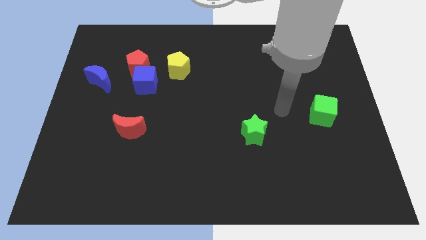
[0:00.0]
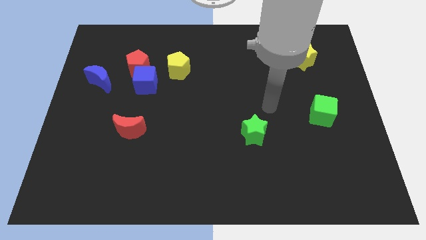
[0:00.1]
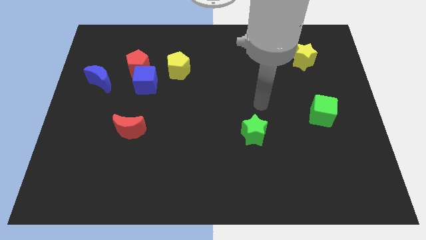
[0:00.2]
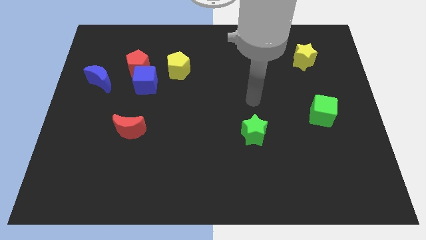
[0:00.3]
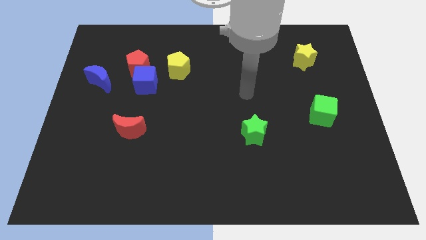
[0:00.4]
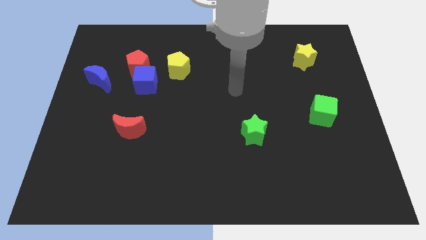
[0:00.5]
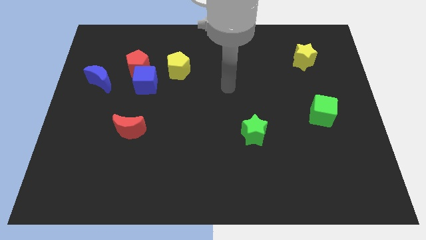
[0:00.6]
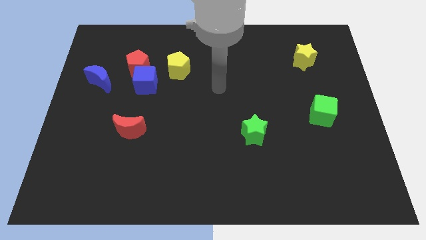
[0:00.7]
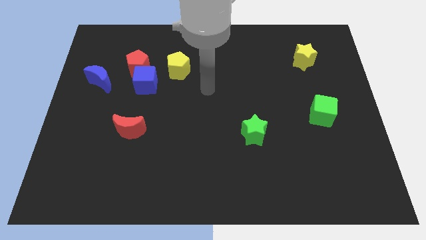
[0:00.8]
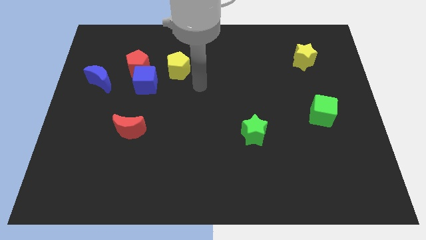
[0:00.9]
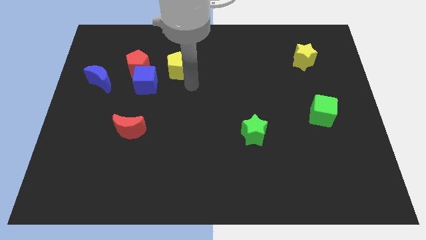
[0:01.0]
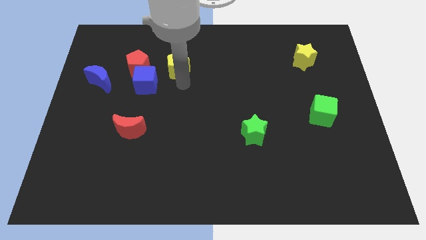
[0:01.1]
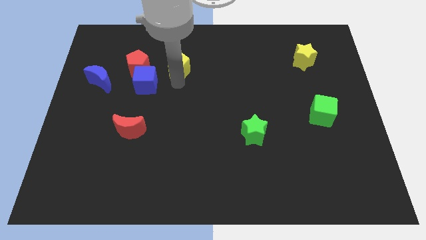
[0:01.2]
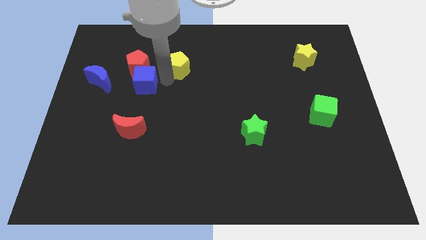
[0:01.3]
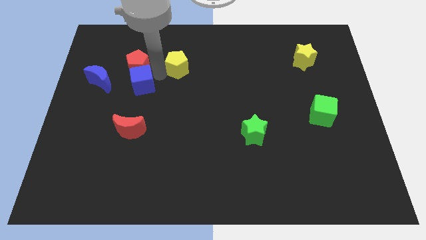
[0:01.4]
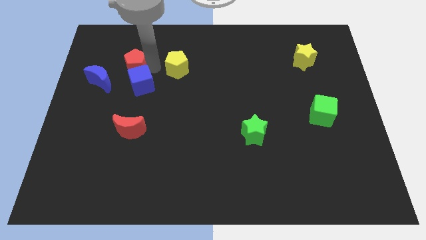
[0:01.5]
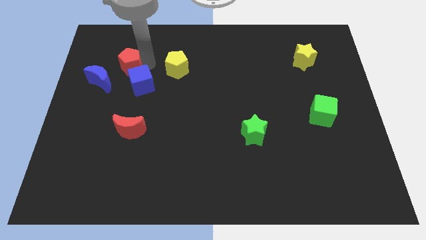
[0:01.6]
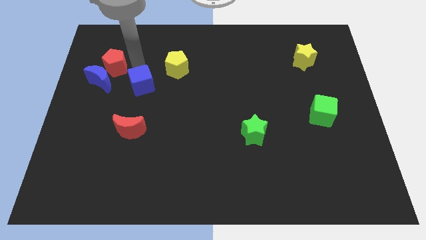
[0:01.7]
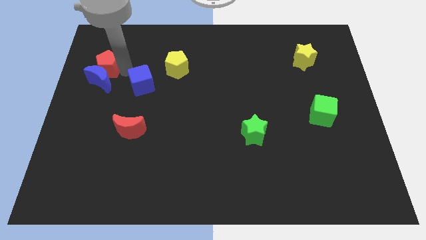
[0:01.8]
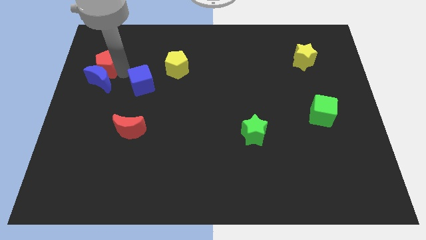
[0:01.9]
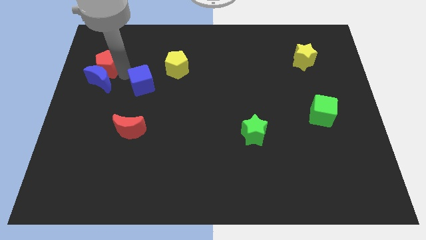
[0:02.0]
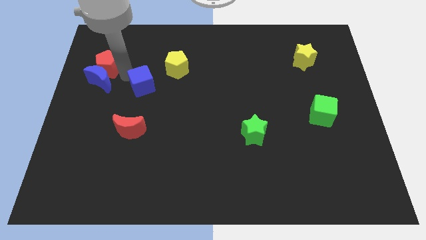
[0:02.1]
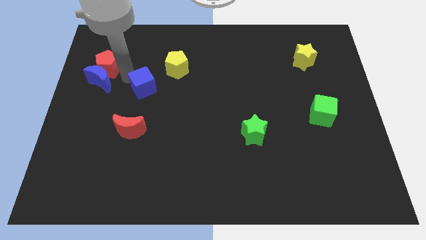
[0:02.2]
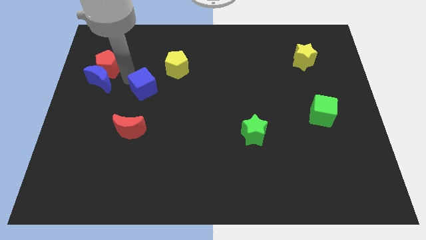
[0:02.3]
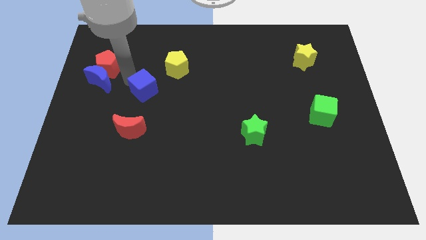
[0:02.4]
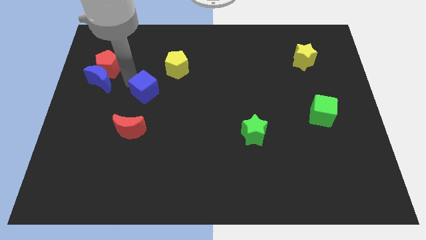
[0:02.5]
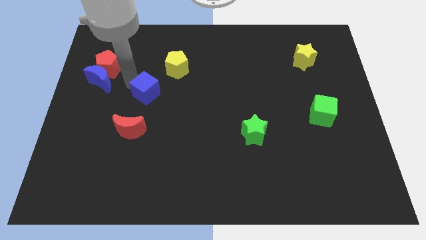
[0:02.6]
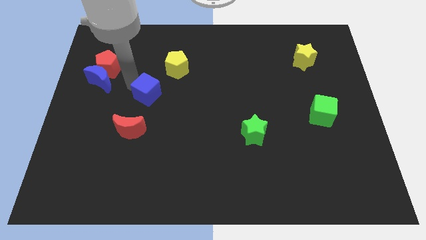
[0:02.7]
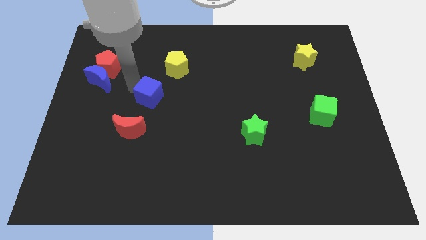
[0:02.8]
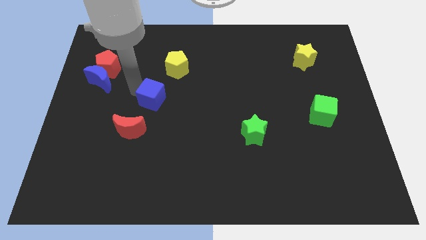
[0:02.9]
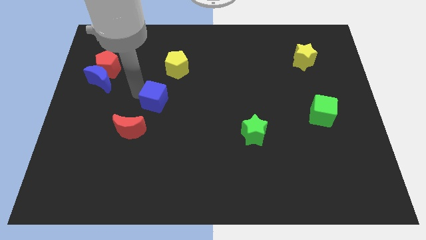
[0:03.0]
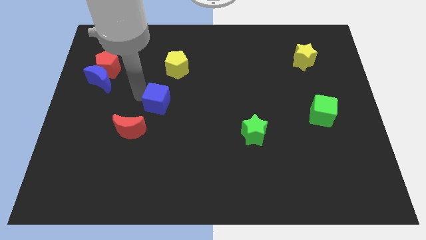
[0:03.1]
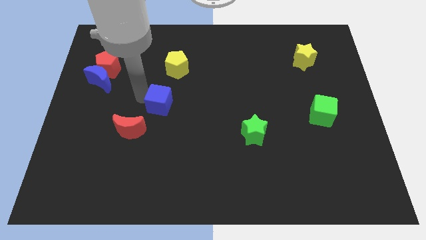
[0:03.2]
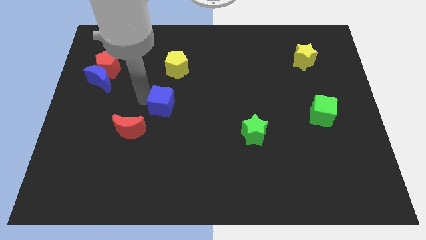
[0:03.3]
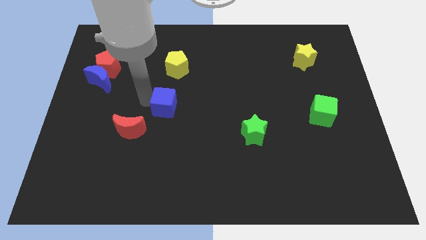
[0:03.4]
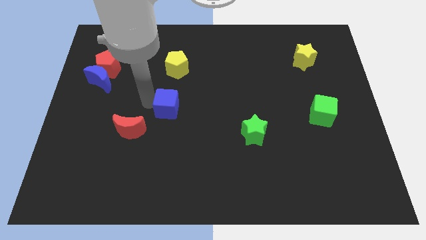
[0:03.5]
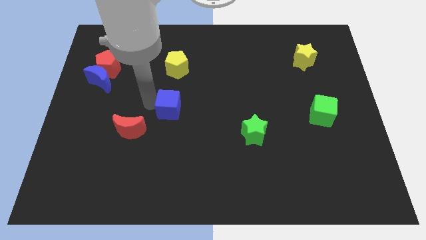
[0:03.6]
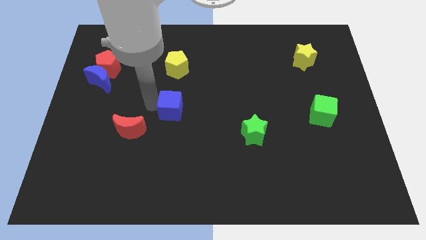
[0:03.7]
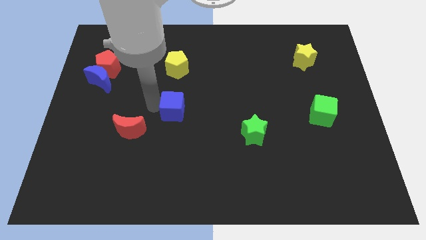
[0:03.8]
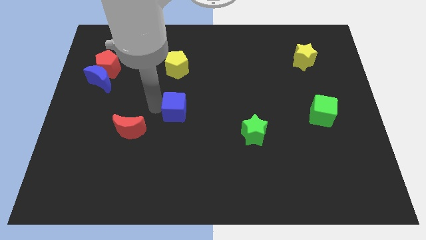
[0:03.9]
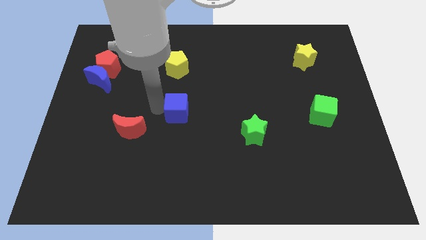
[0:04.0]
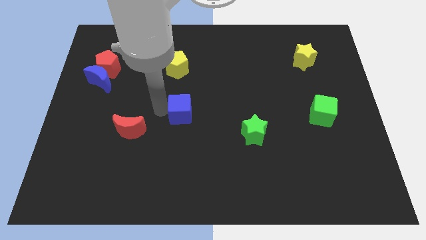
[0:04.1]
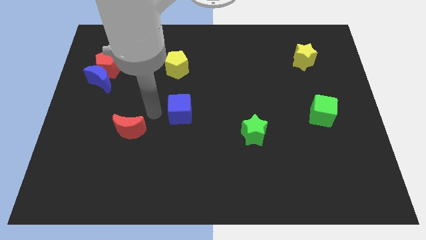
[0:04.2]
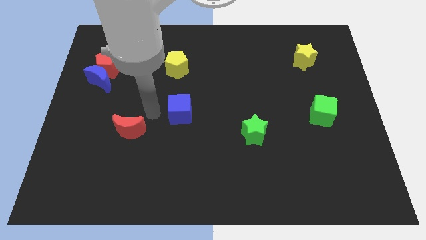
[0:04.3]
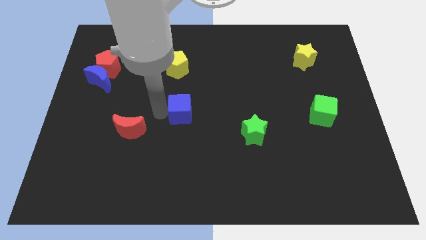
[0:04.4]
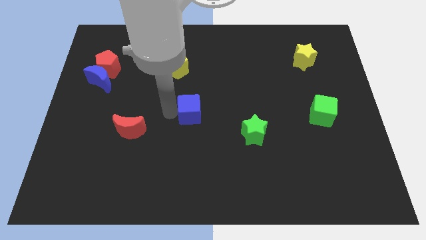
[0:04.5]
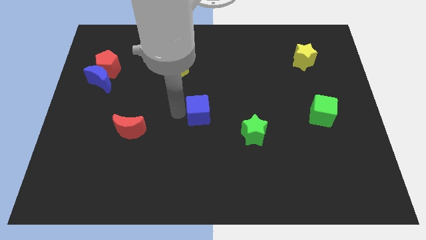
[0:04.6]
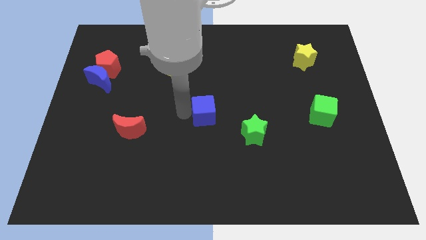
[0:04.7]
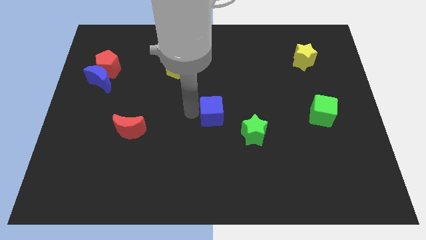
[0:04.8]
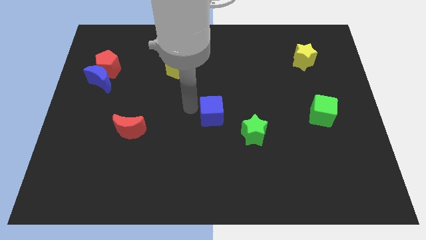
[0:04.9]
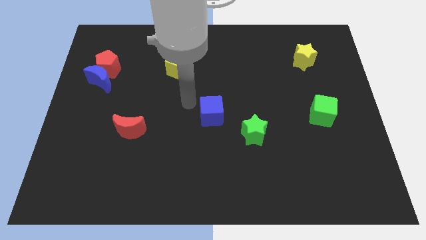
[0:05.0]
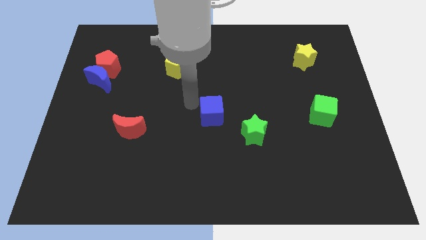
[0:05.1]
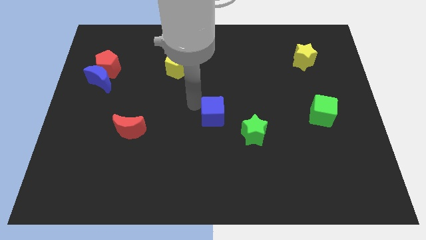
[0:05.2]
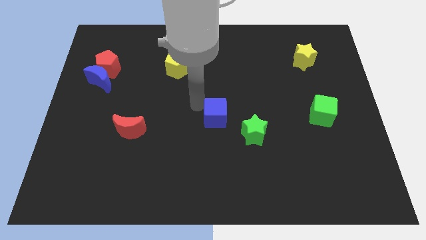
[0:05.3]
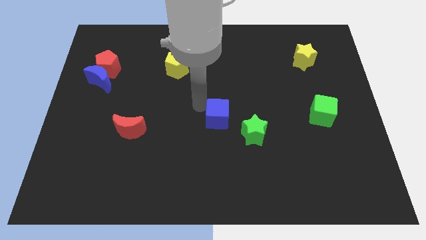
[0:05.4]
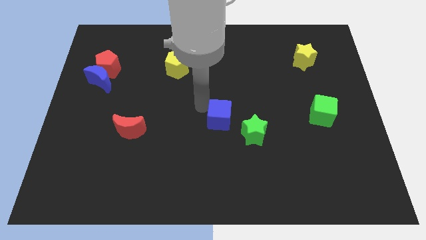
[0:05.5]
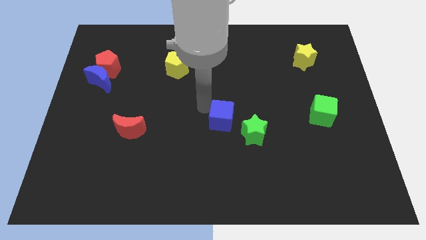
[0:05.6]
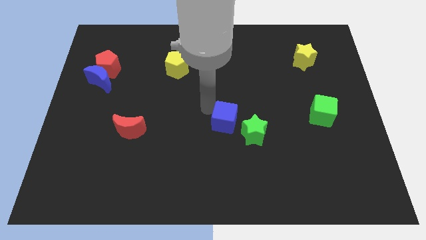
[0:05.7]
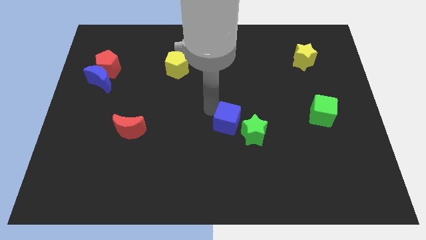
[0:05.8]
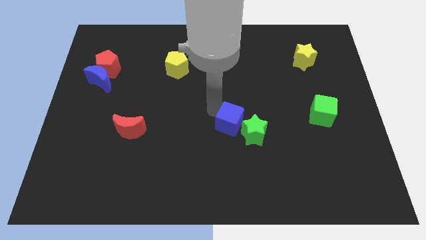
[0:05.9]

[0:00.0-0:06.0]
push the blue cube towards the green star

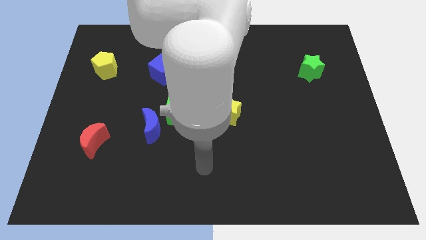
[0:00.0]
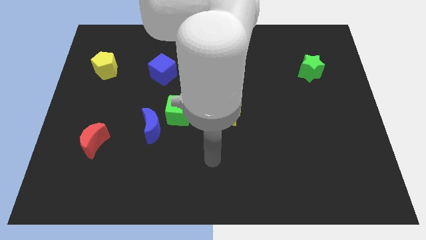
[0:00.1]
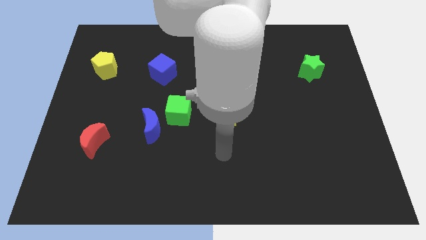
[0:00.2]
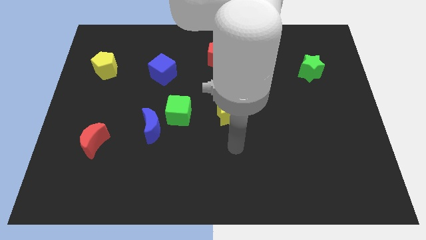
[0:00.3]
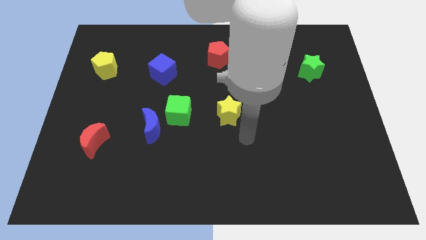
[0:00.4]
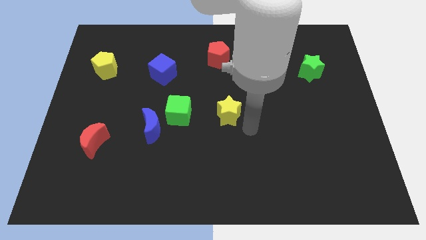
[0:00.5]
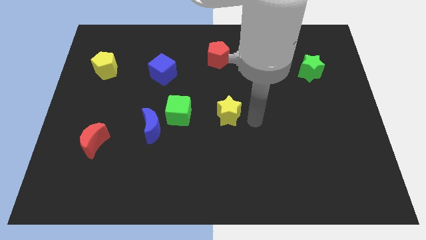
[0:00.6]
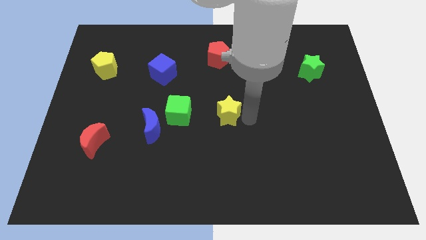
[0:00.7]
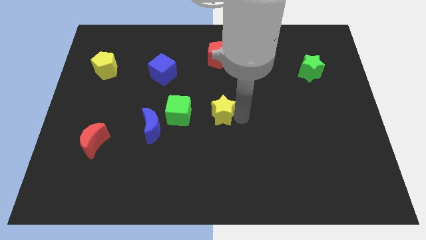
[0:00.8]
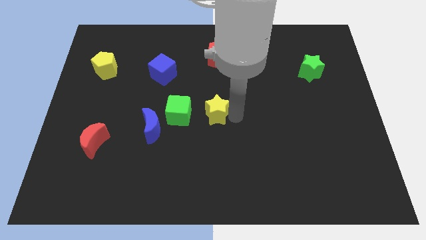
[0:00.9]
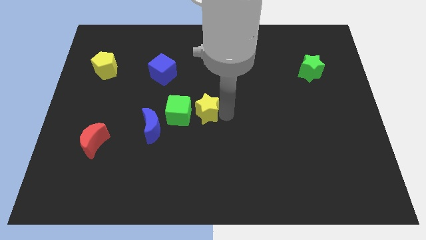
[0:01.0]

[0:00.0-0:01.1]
put the yellow star next to the green cube
